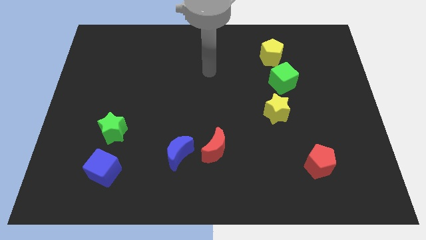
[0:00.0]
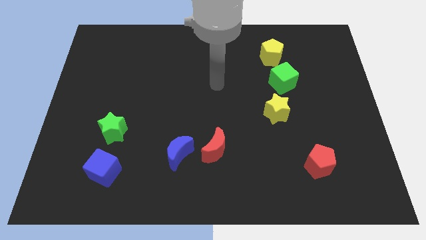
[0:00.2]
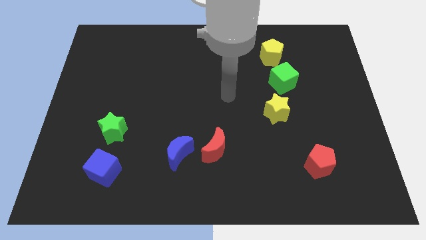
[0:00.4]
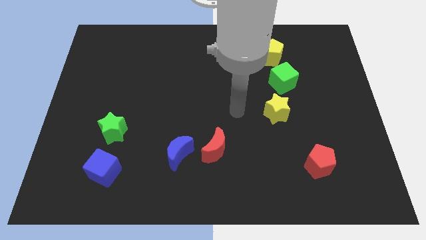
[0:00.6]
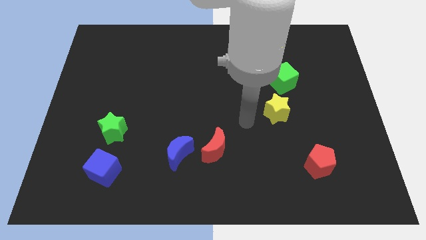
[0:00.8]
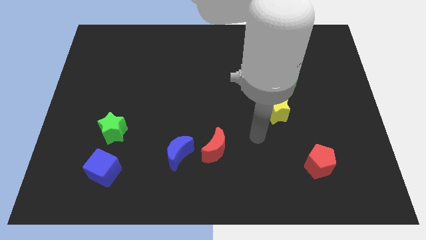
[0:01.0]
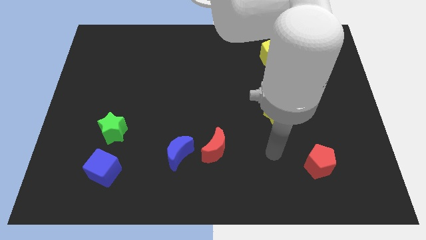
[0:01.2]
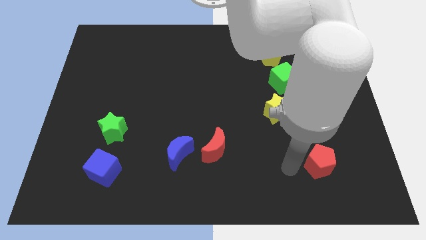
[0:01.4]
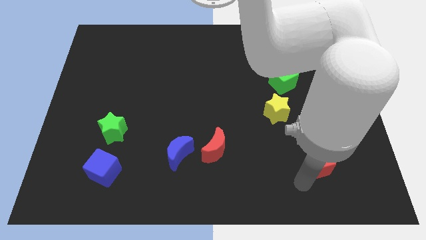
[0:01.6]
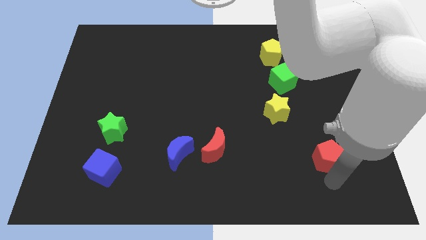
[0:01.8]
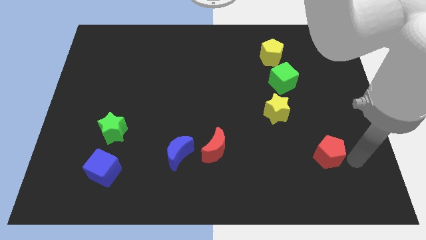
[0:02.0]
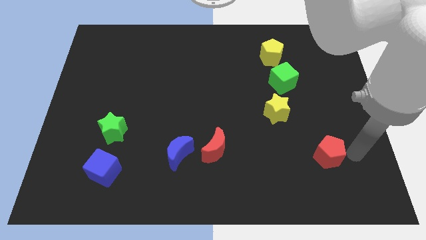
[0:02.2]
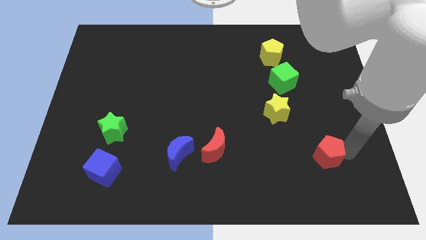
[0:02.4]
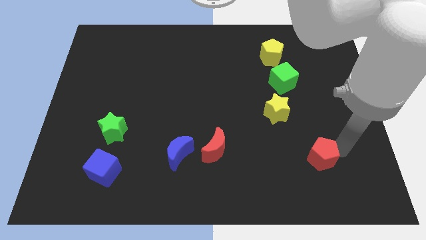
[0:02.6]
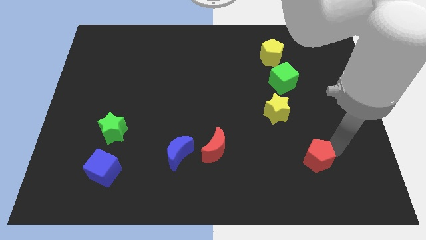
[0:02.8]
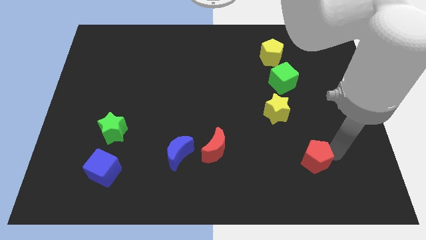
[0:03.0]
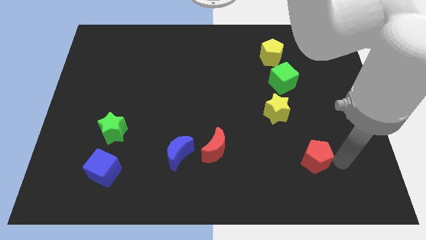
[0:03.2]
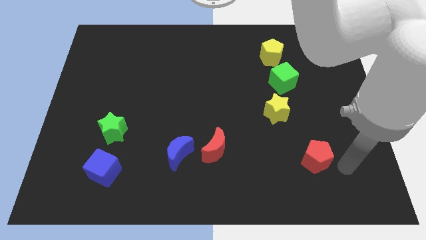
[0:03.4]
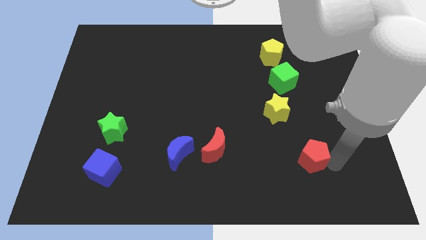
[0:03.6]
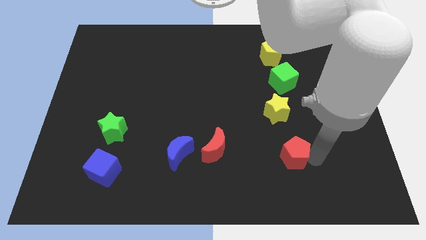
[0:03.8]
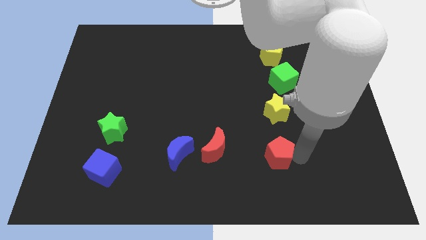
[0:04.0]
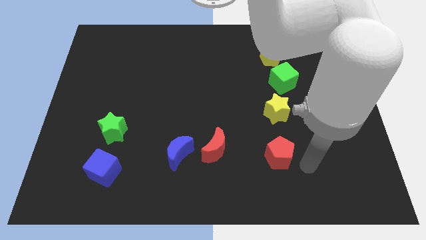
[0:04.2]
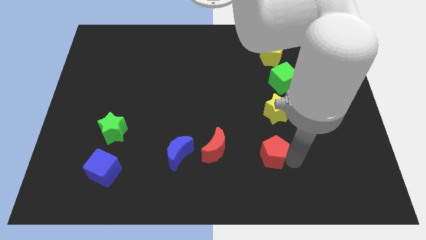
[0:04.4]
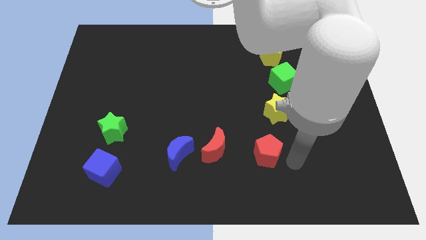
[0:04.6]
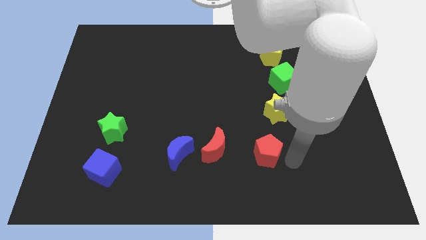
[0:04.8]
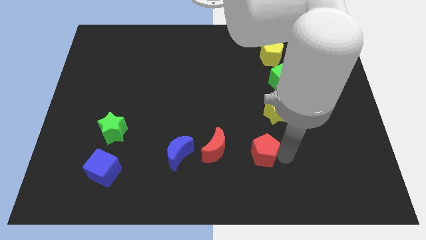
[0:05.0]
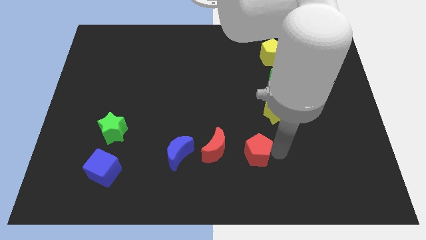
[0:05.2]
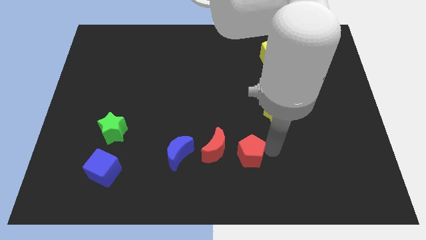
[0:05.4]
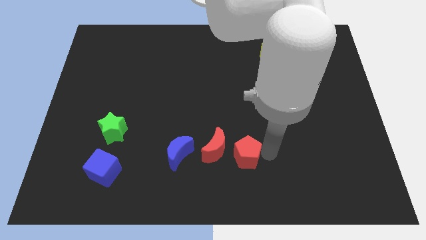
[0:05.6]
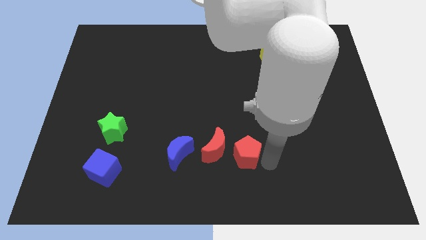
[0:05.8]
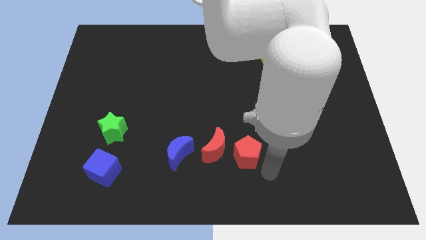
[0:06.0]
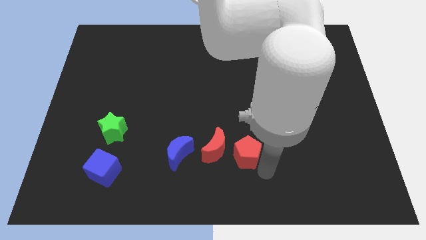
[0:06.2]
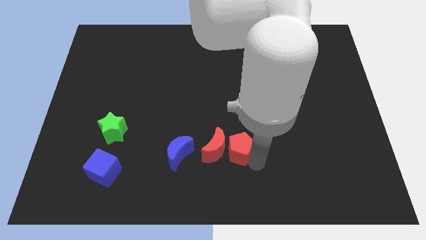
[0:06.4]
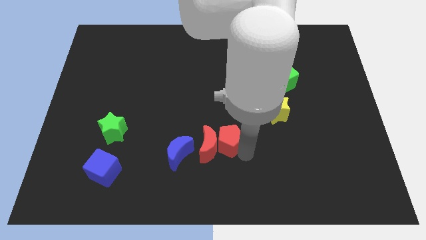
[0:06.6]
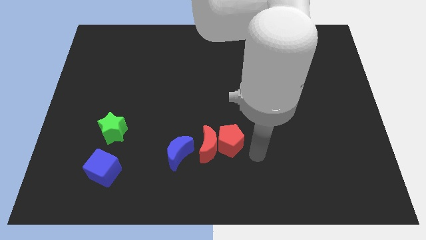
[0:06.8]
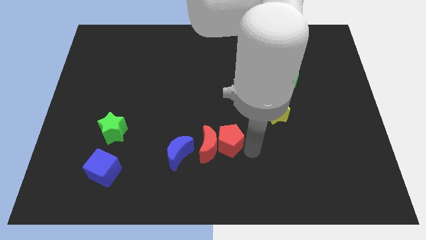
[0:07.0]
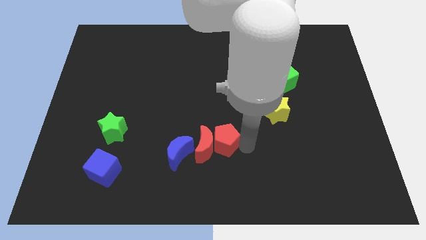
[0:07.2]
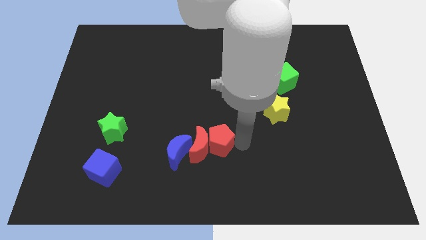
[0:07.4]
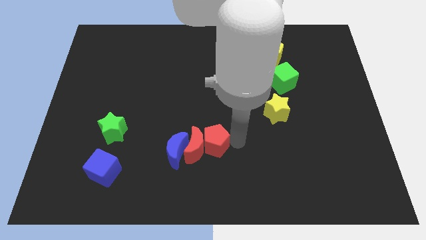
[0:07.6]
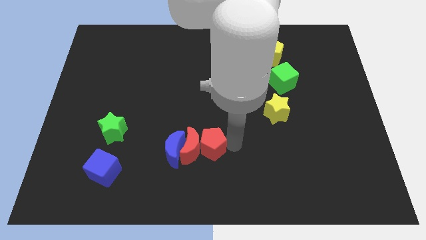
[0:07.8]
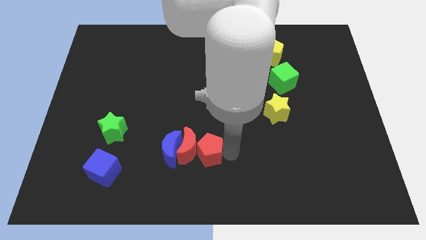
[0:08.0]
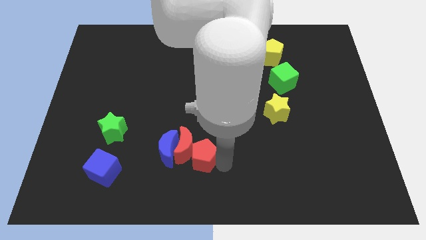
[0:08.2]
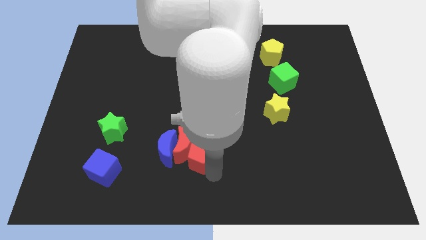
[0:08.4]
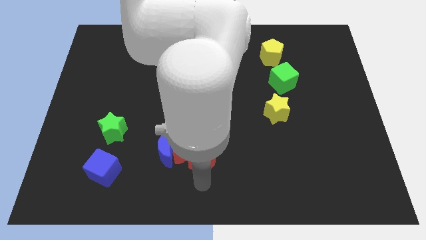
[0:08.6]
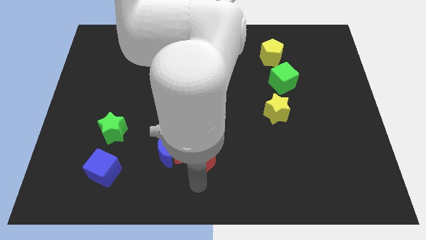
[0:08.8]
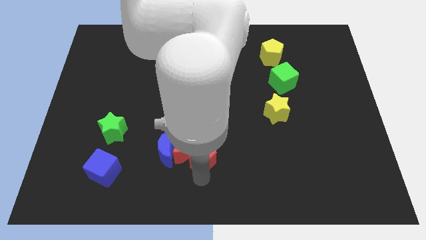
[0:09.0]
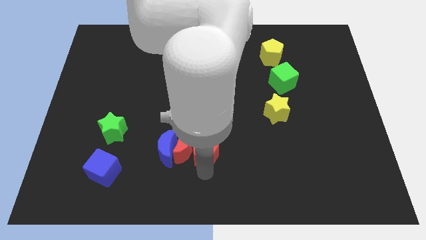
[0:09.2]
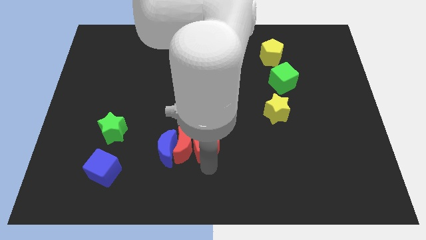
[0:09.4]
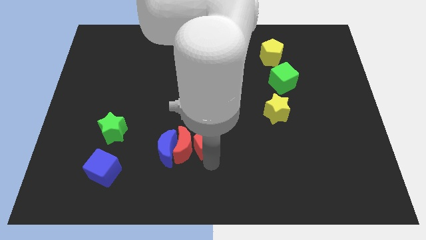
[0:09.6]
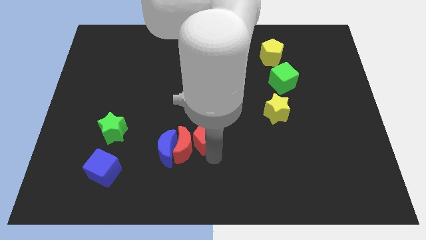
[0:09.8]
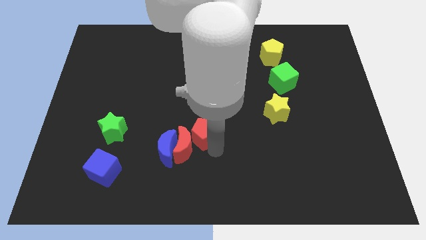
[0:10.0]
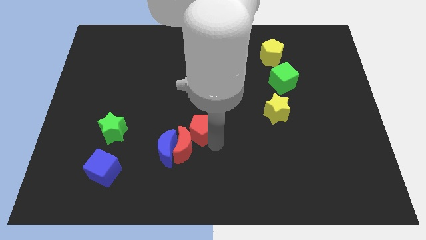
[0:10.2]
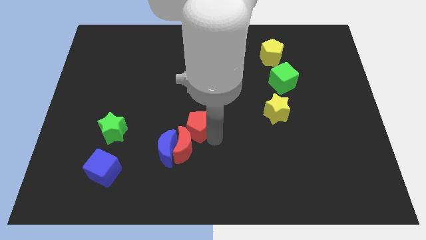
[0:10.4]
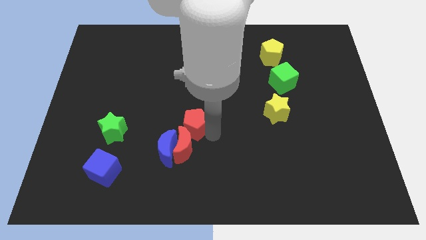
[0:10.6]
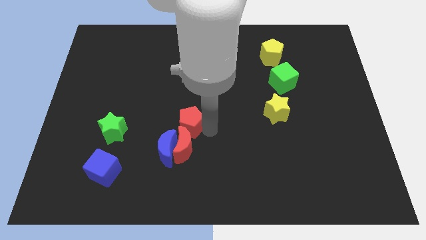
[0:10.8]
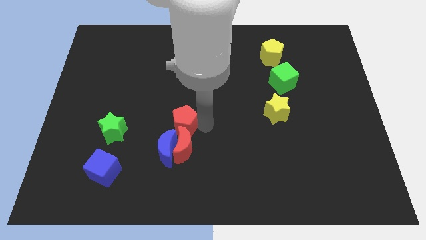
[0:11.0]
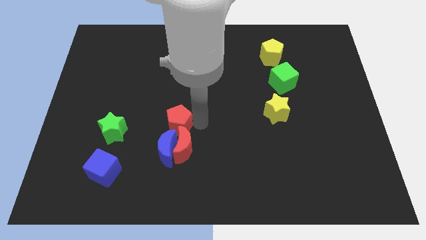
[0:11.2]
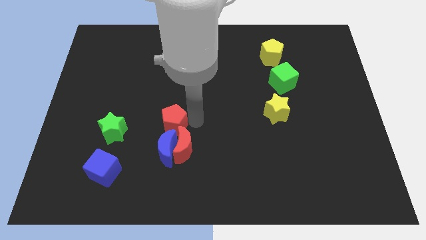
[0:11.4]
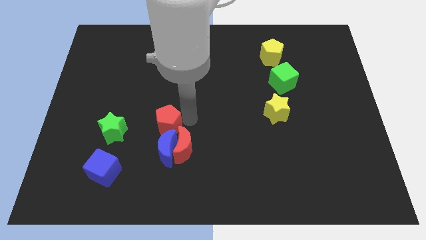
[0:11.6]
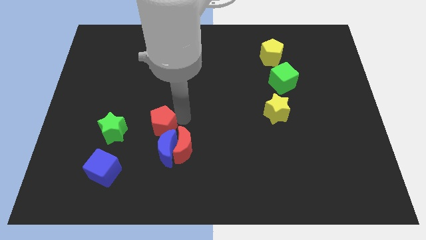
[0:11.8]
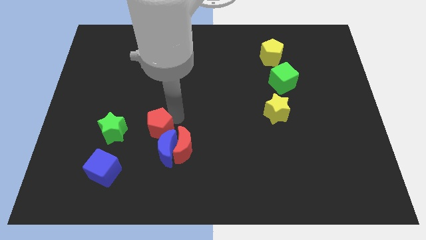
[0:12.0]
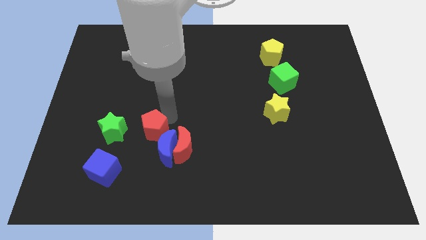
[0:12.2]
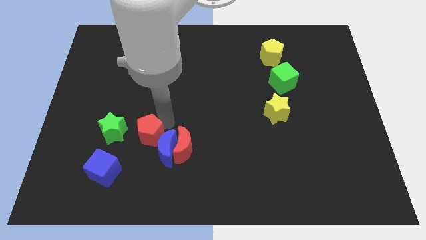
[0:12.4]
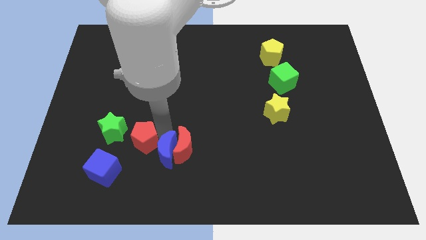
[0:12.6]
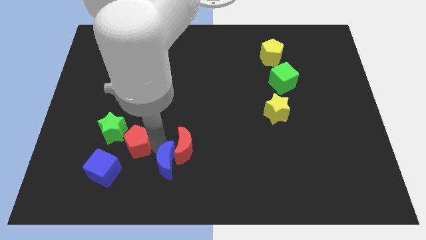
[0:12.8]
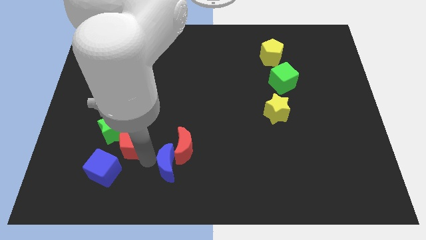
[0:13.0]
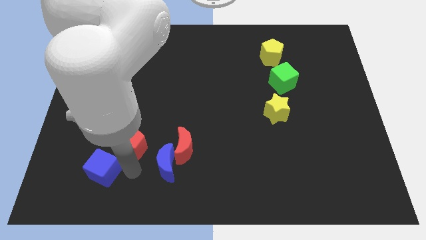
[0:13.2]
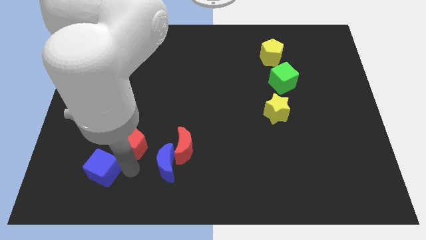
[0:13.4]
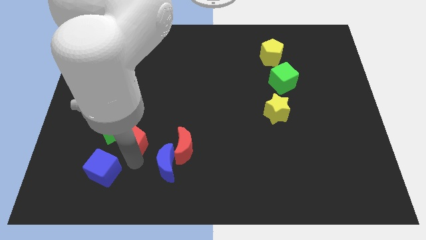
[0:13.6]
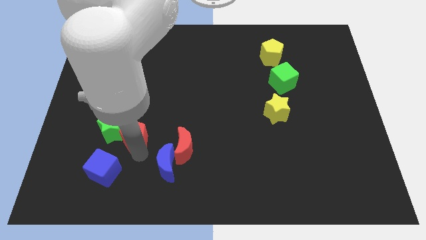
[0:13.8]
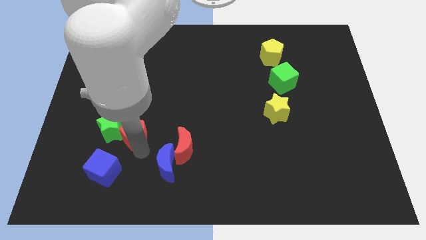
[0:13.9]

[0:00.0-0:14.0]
slide the red pentagon to the top right of the green star
